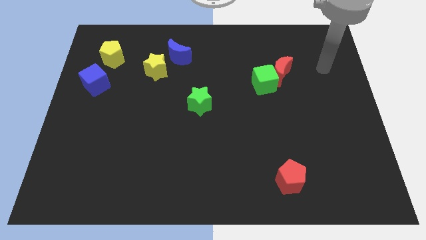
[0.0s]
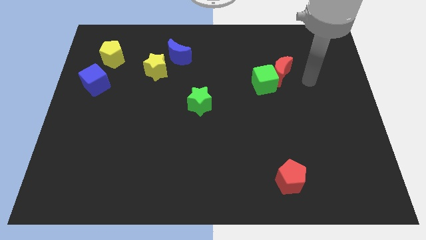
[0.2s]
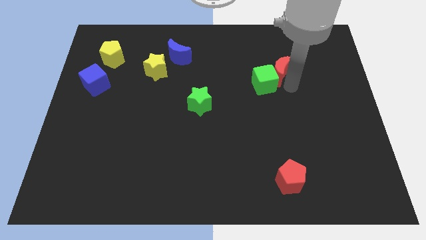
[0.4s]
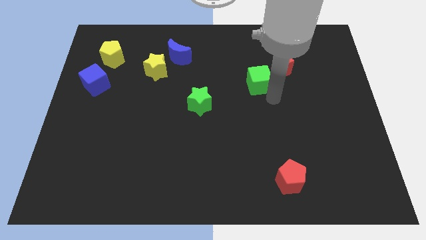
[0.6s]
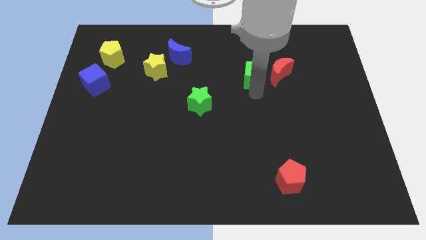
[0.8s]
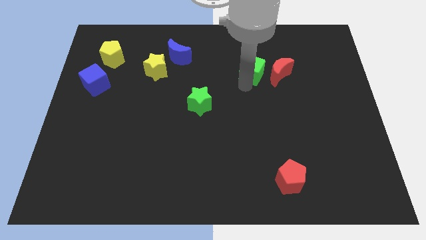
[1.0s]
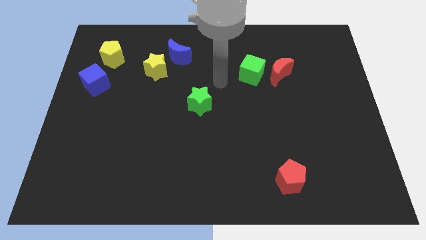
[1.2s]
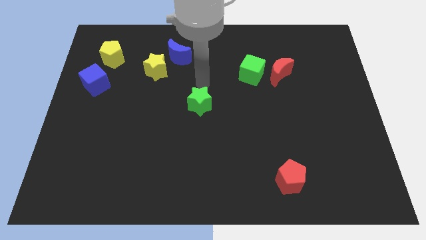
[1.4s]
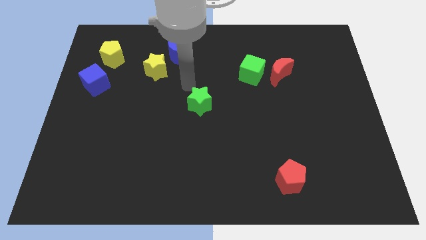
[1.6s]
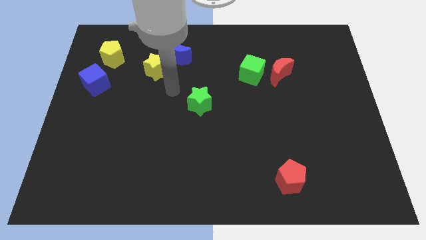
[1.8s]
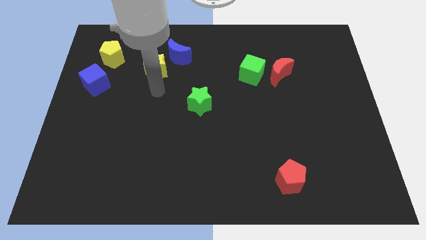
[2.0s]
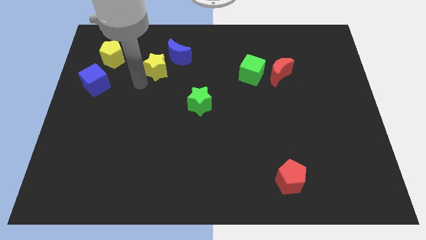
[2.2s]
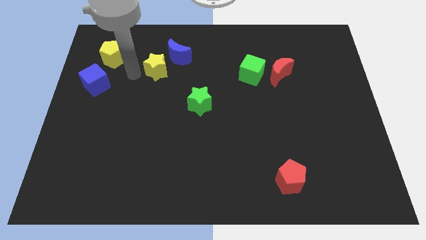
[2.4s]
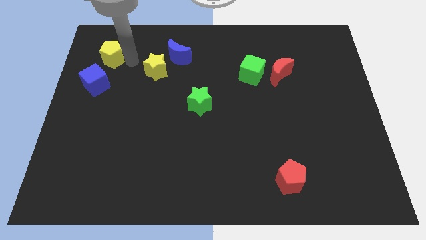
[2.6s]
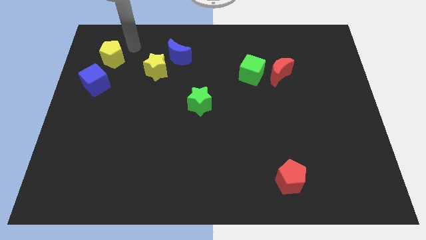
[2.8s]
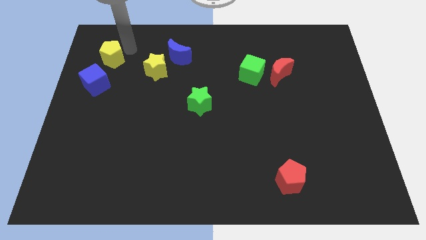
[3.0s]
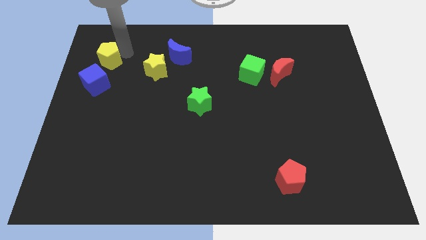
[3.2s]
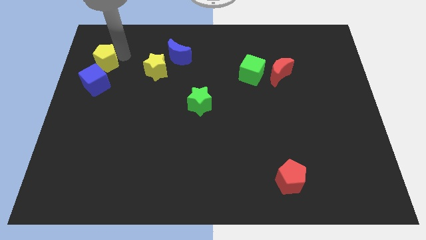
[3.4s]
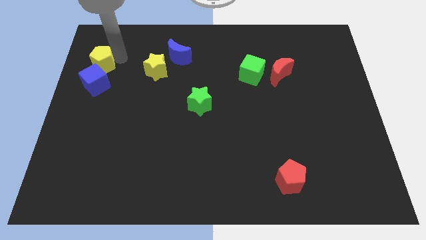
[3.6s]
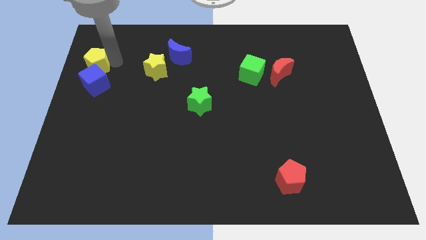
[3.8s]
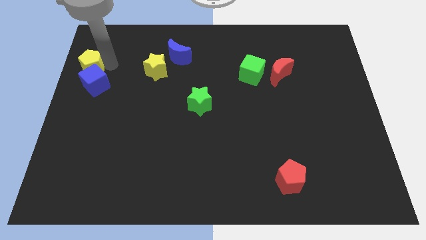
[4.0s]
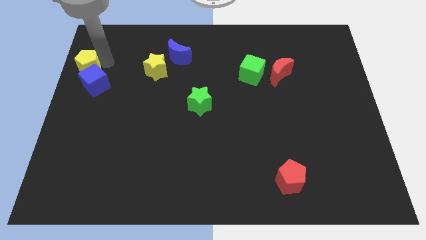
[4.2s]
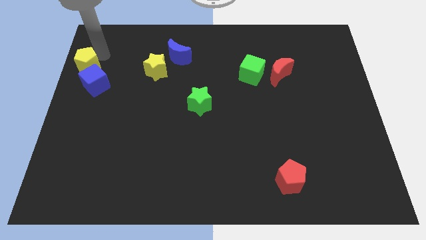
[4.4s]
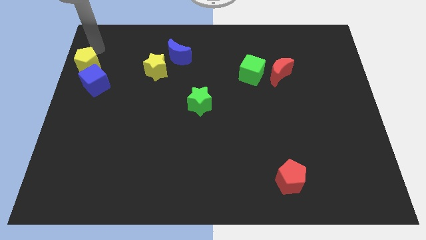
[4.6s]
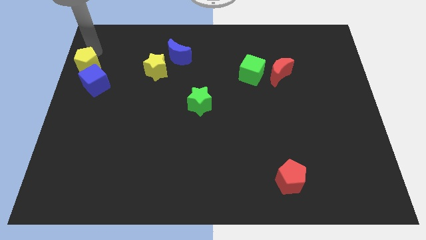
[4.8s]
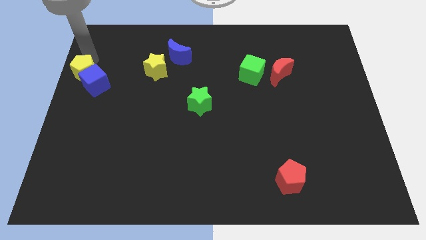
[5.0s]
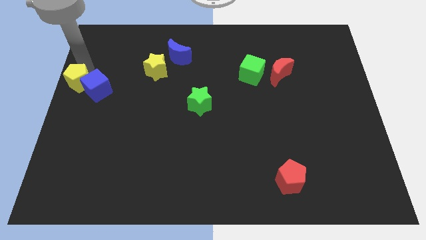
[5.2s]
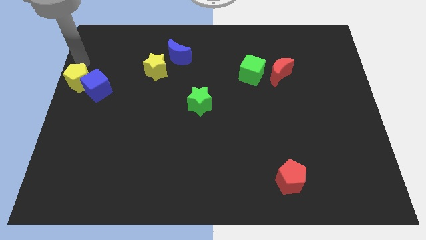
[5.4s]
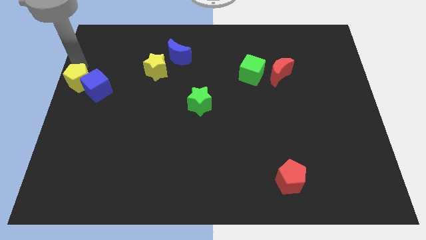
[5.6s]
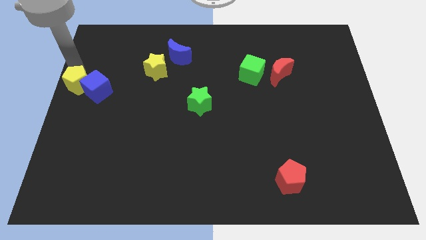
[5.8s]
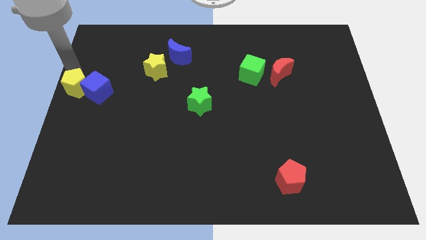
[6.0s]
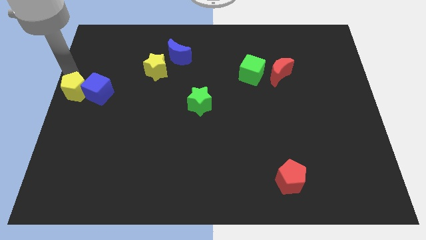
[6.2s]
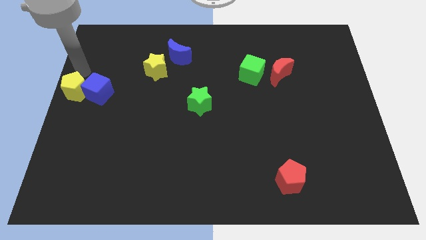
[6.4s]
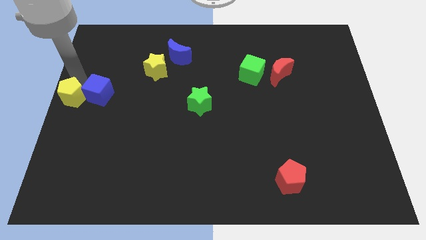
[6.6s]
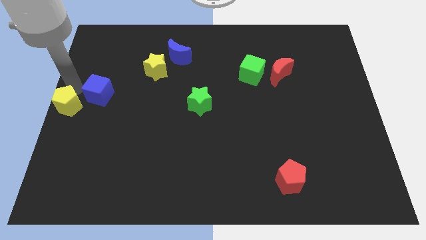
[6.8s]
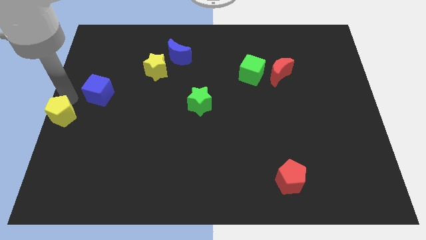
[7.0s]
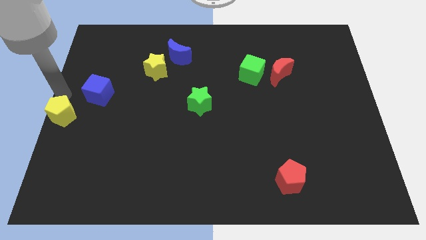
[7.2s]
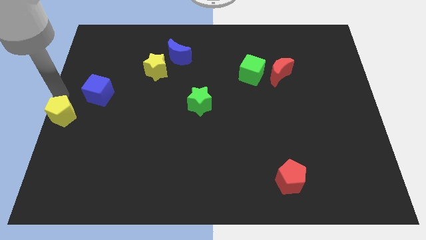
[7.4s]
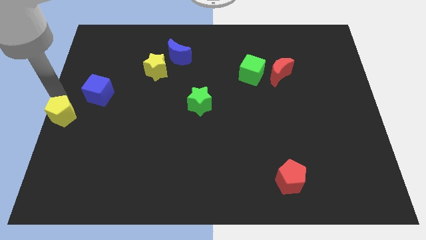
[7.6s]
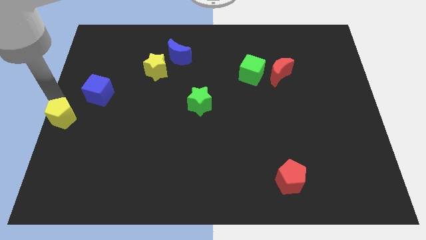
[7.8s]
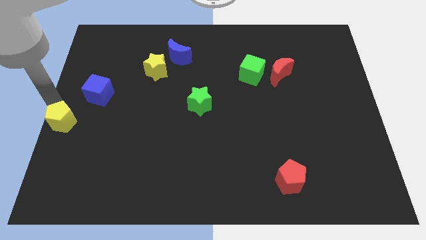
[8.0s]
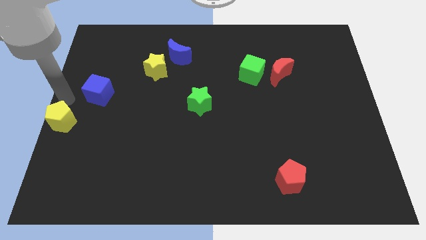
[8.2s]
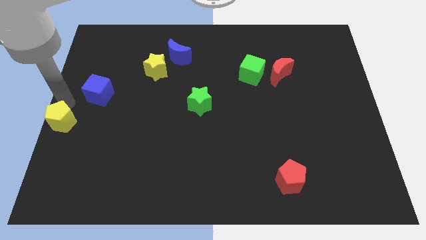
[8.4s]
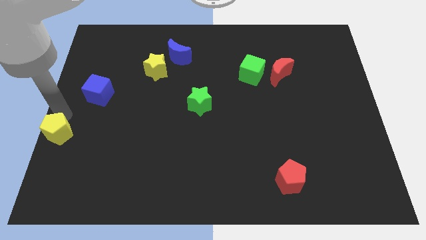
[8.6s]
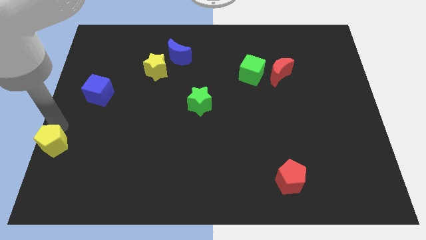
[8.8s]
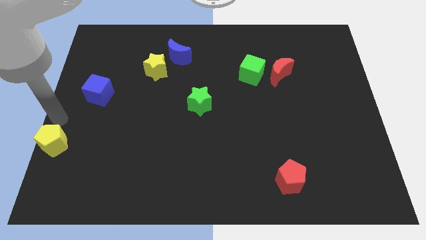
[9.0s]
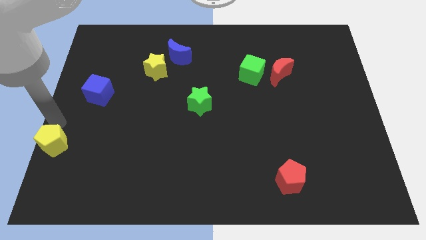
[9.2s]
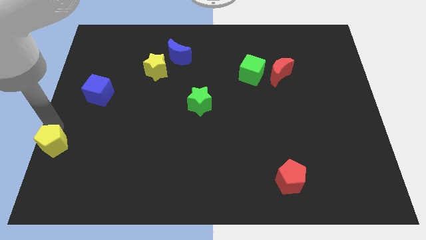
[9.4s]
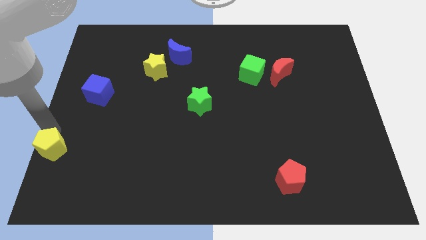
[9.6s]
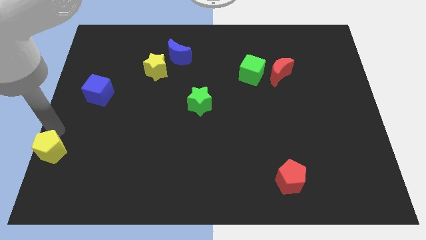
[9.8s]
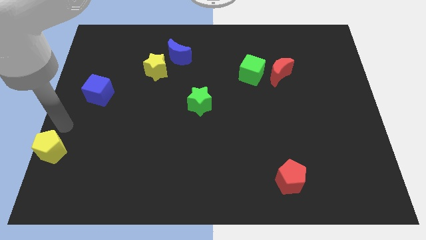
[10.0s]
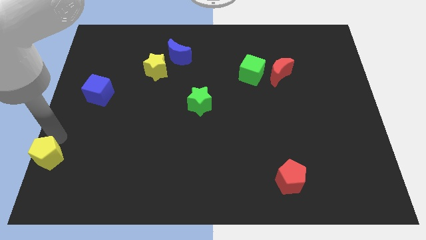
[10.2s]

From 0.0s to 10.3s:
move the yellow pentagon to the bottom left of the board

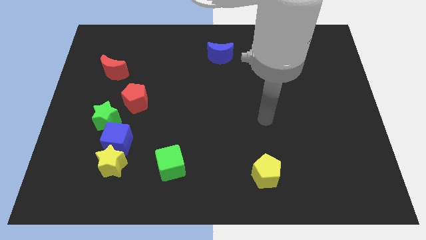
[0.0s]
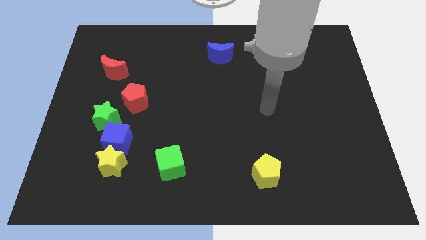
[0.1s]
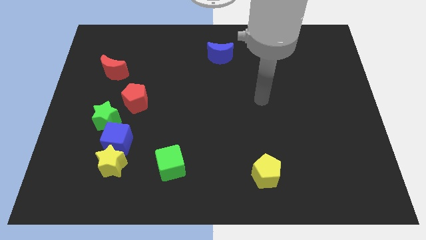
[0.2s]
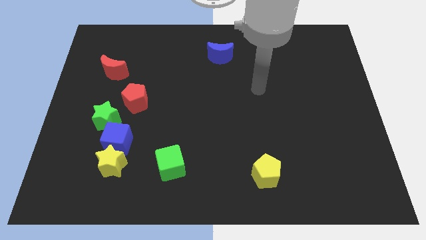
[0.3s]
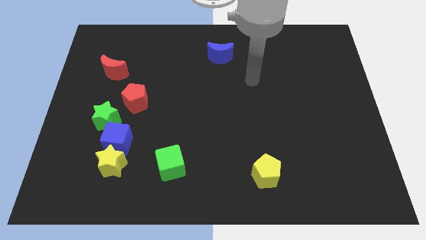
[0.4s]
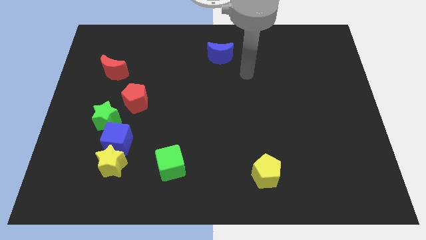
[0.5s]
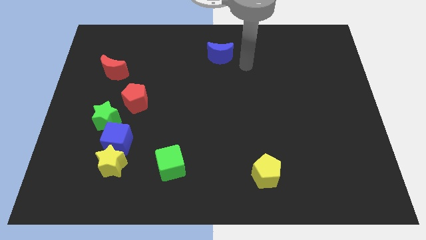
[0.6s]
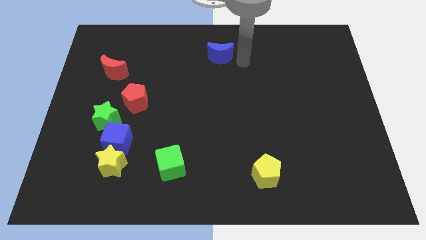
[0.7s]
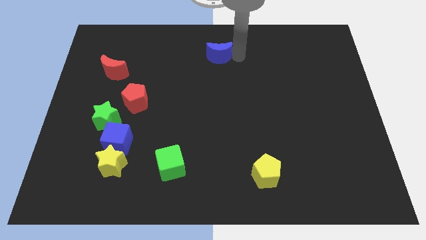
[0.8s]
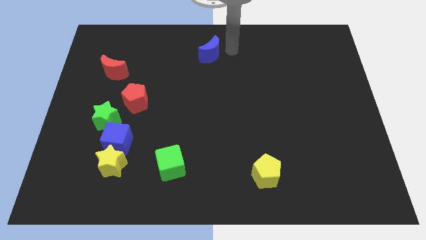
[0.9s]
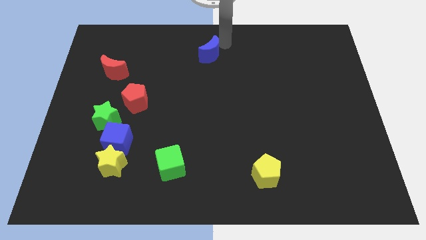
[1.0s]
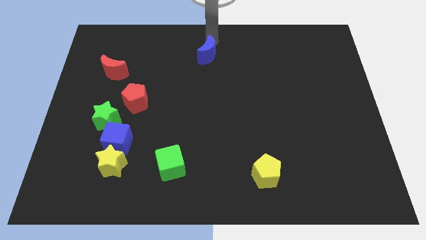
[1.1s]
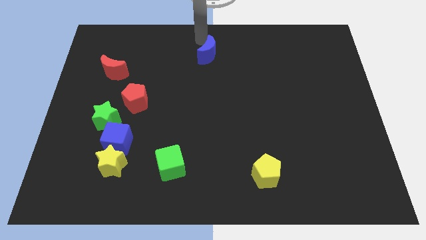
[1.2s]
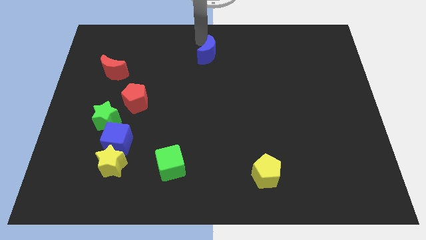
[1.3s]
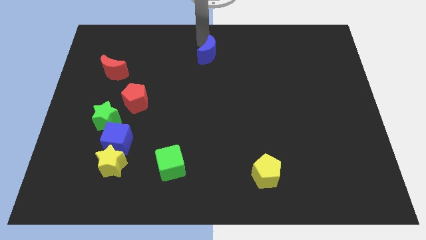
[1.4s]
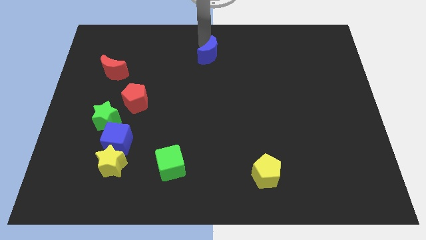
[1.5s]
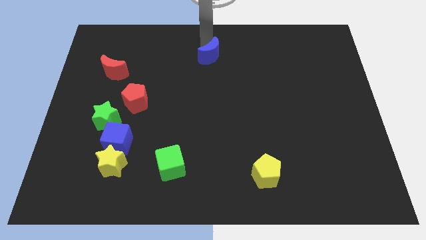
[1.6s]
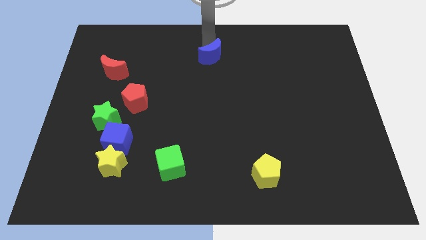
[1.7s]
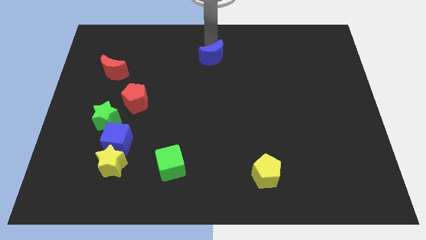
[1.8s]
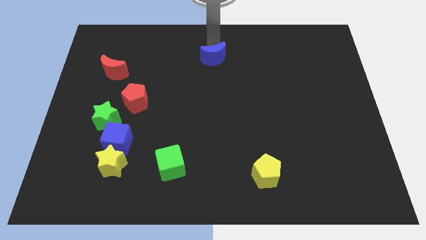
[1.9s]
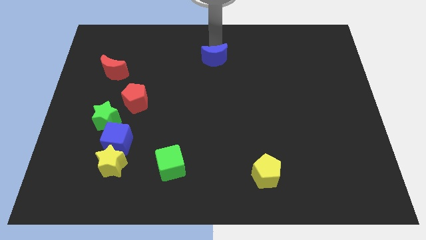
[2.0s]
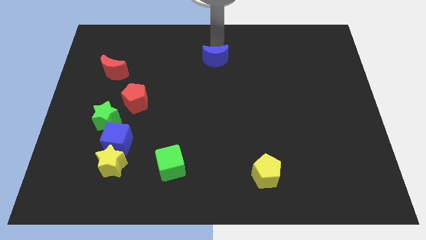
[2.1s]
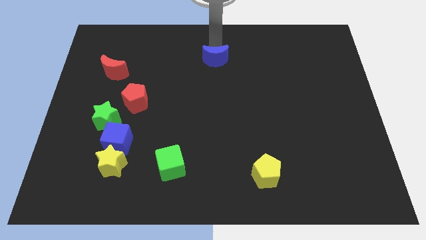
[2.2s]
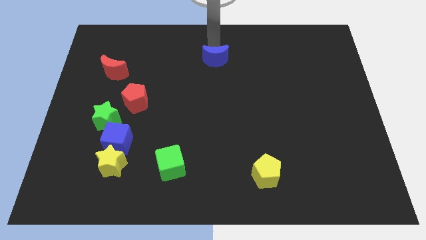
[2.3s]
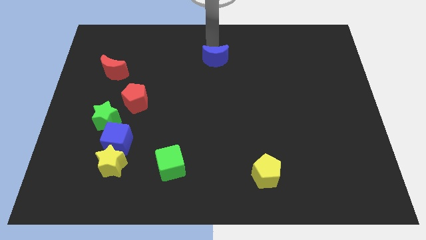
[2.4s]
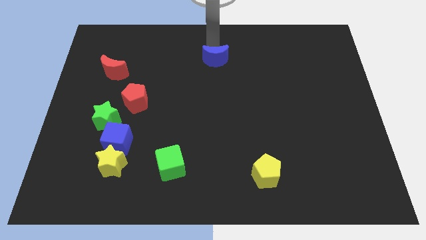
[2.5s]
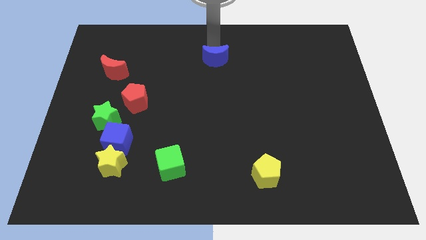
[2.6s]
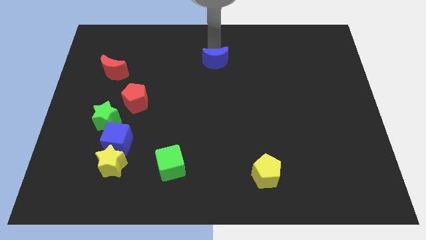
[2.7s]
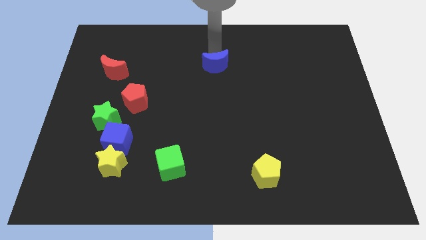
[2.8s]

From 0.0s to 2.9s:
put the blue moon to the center
